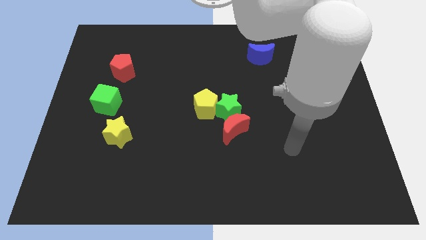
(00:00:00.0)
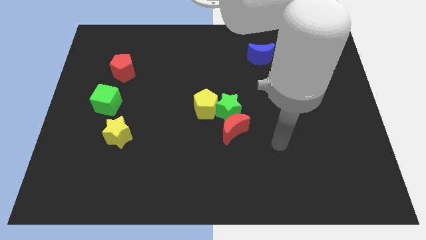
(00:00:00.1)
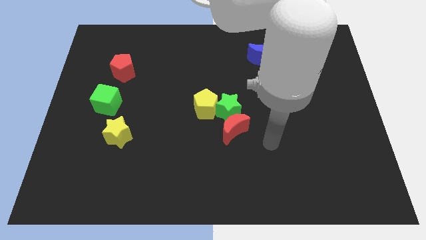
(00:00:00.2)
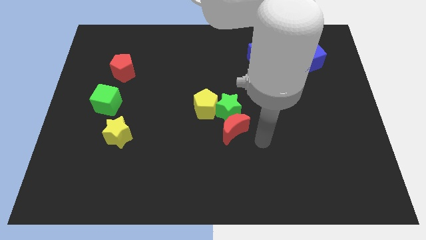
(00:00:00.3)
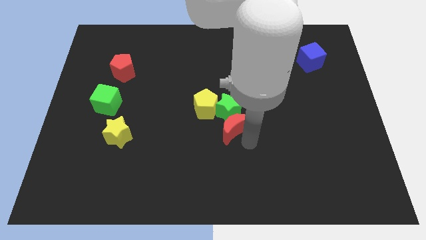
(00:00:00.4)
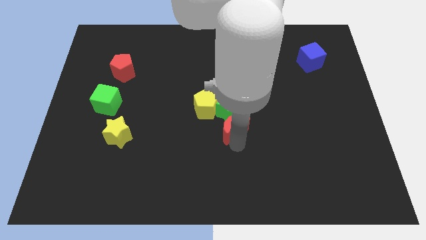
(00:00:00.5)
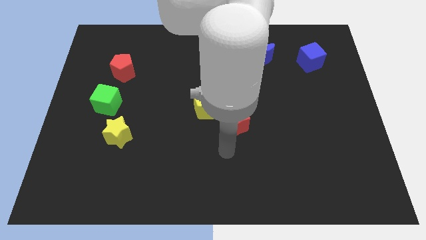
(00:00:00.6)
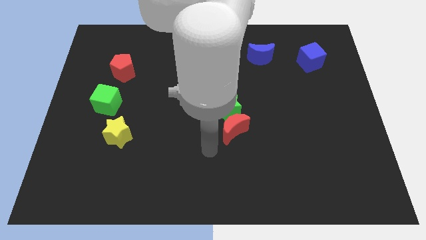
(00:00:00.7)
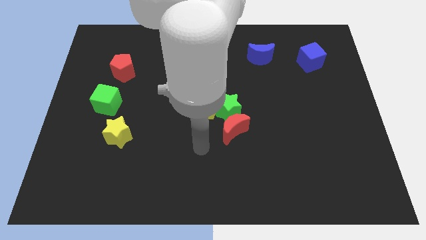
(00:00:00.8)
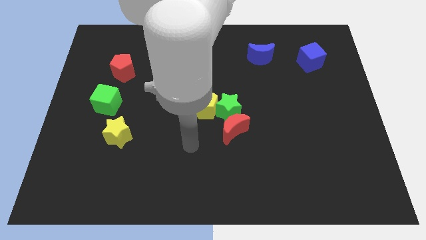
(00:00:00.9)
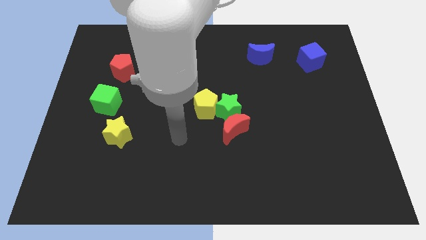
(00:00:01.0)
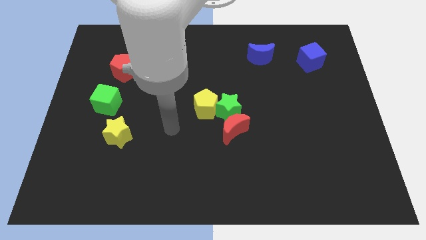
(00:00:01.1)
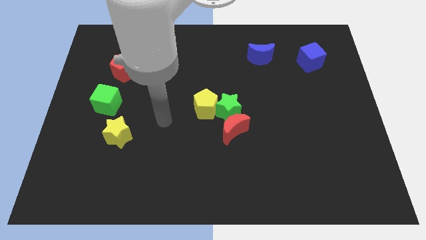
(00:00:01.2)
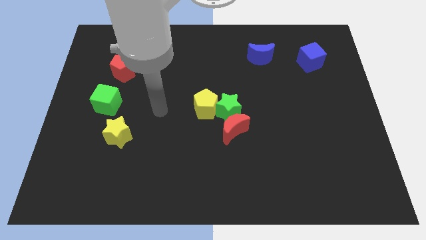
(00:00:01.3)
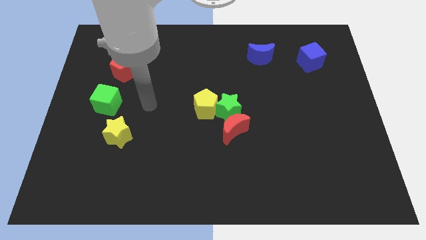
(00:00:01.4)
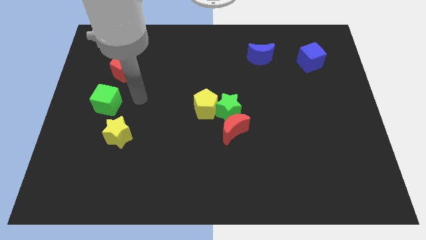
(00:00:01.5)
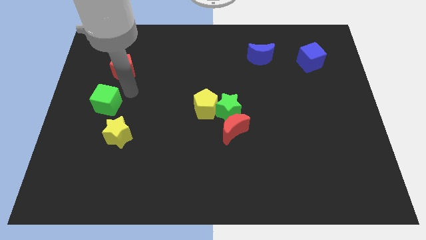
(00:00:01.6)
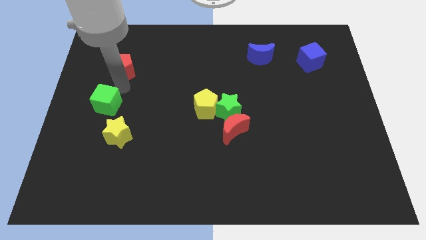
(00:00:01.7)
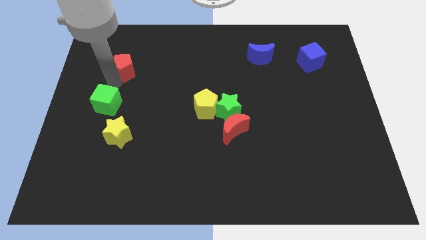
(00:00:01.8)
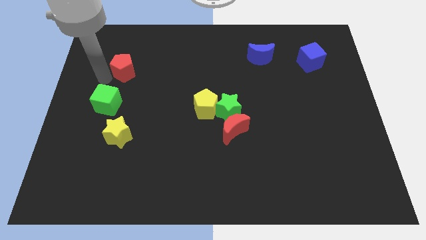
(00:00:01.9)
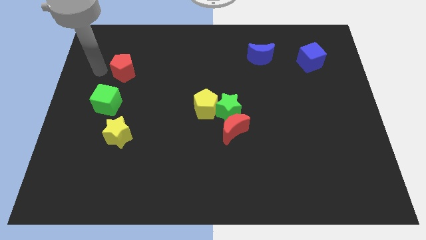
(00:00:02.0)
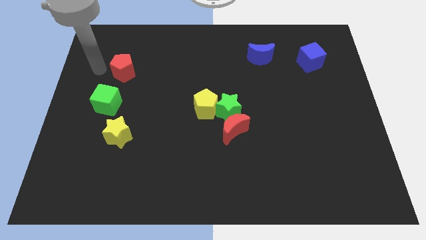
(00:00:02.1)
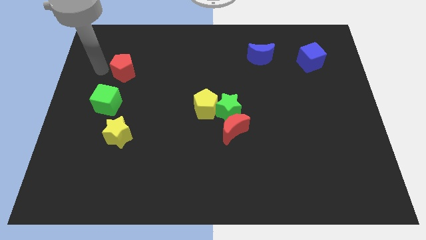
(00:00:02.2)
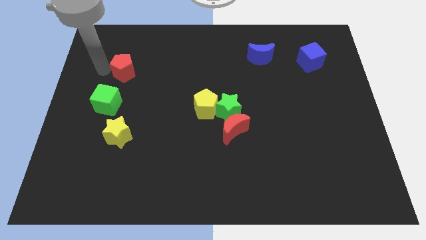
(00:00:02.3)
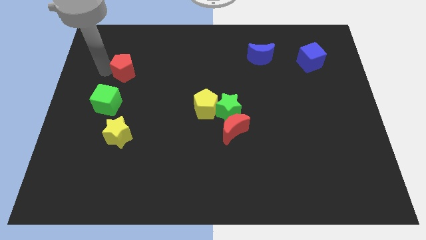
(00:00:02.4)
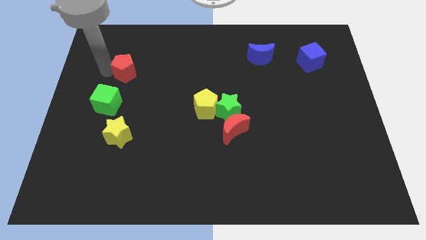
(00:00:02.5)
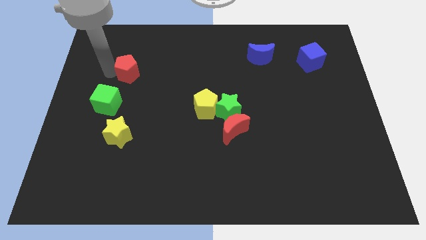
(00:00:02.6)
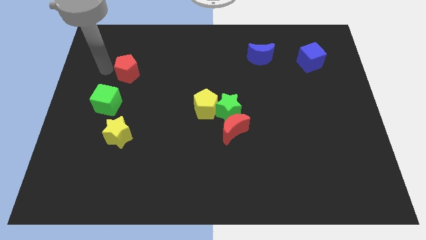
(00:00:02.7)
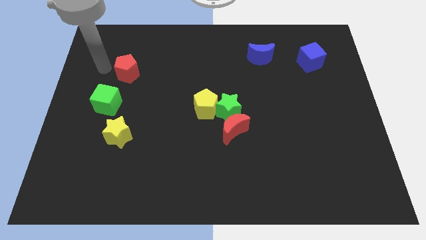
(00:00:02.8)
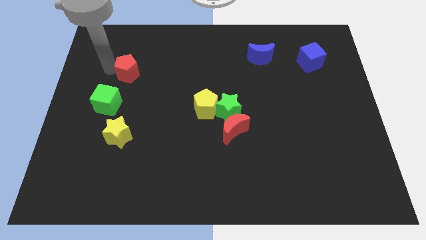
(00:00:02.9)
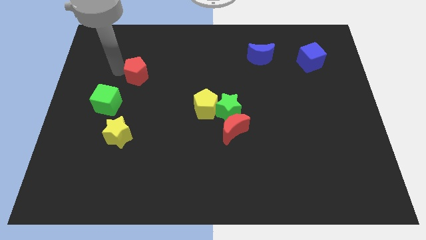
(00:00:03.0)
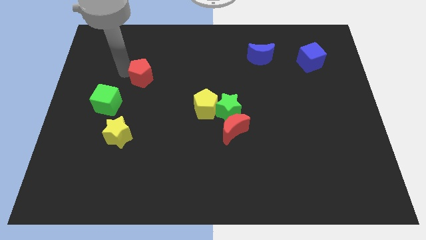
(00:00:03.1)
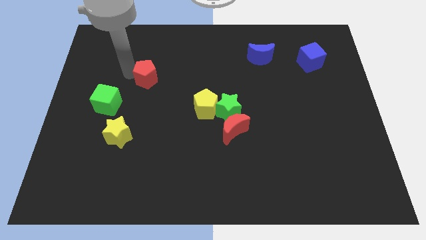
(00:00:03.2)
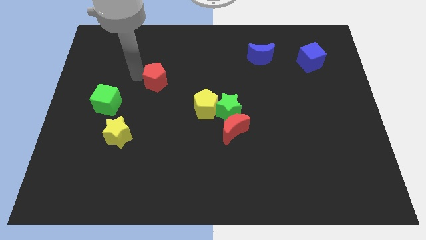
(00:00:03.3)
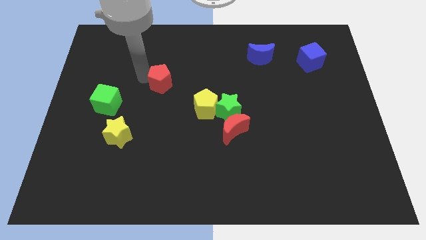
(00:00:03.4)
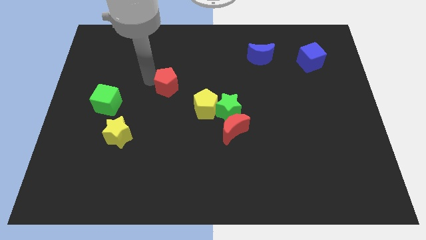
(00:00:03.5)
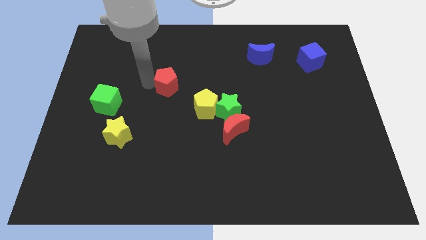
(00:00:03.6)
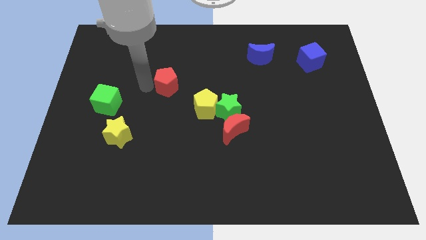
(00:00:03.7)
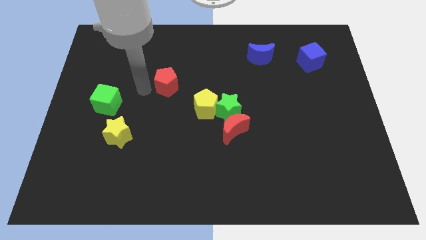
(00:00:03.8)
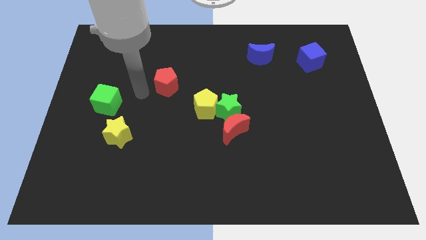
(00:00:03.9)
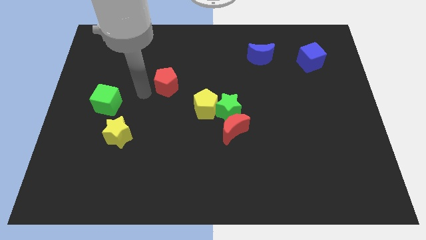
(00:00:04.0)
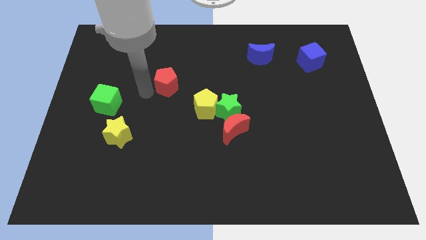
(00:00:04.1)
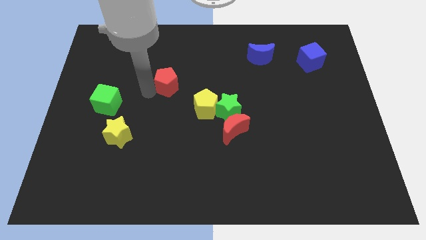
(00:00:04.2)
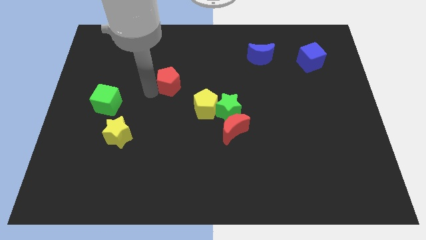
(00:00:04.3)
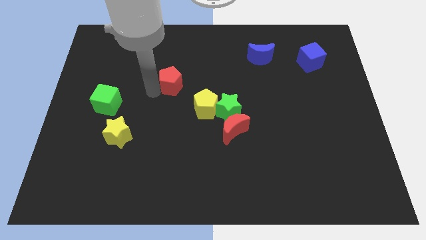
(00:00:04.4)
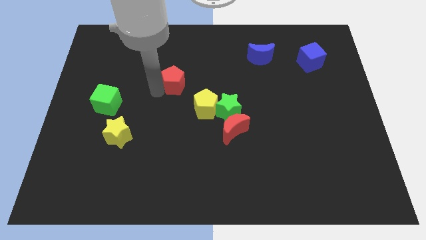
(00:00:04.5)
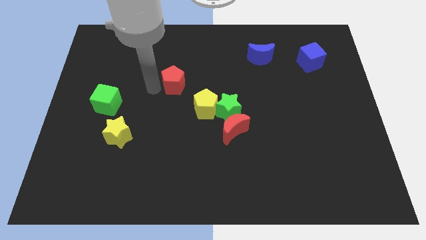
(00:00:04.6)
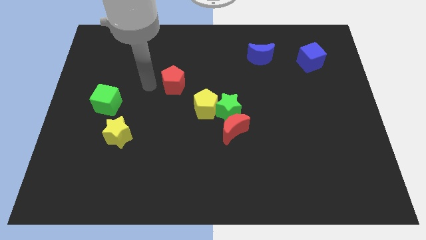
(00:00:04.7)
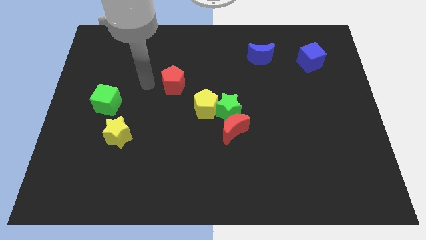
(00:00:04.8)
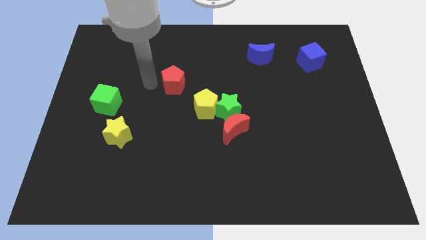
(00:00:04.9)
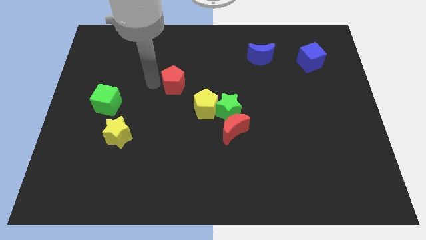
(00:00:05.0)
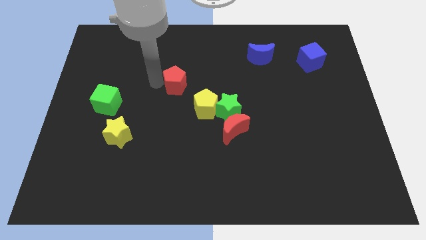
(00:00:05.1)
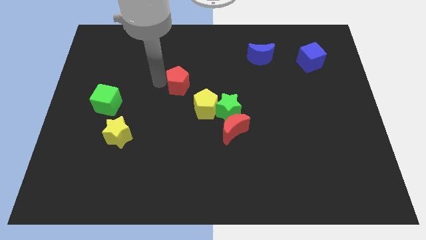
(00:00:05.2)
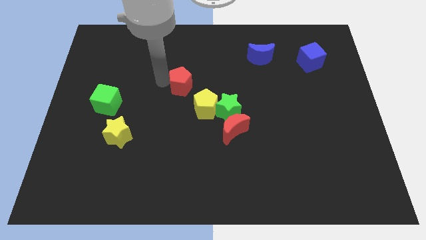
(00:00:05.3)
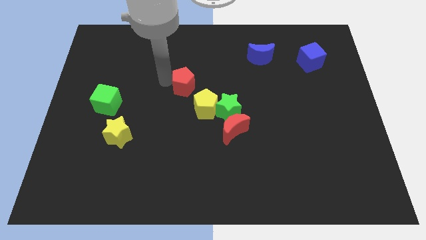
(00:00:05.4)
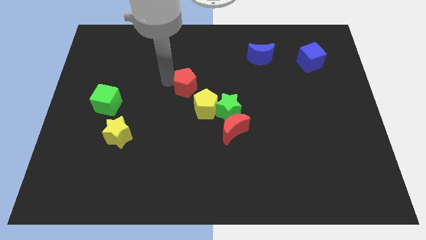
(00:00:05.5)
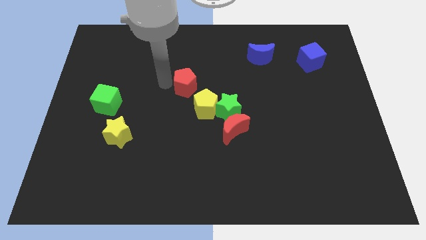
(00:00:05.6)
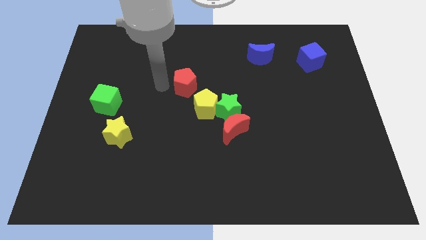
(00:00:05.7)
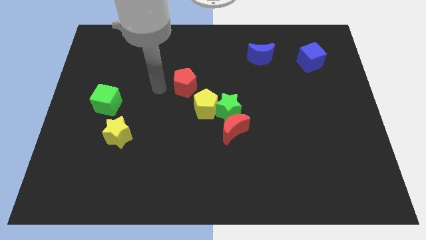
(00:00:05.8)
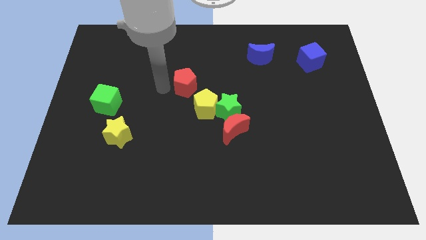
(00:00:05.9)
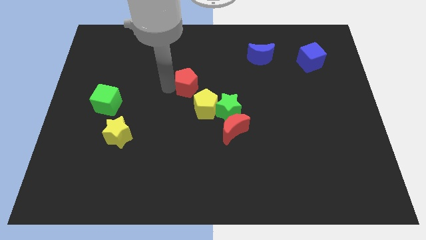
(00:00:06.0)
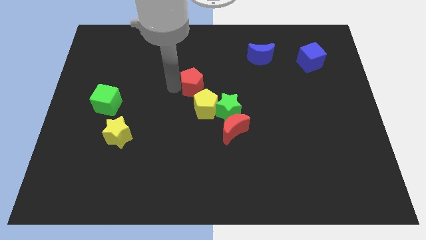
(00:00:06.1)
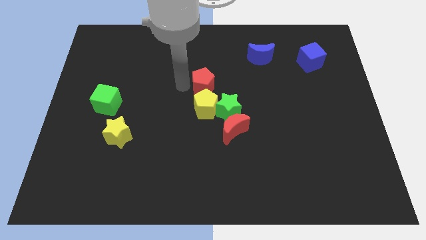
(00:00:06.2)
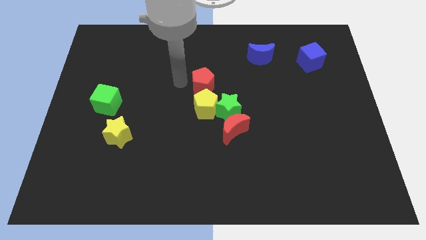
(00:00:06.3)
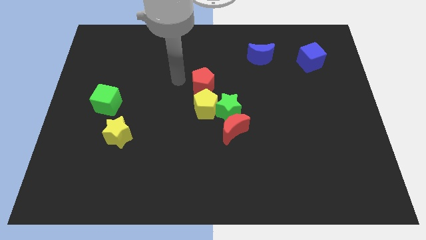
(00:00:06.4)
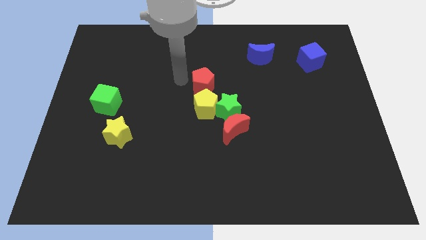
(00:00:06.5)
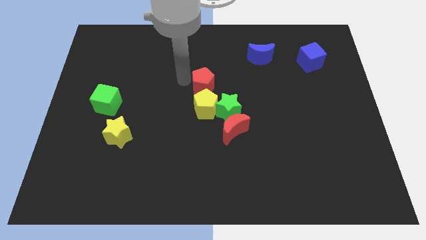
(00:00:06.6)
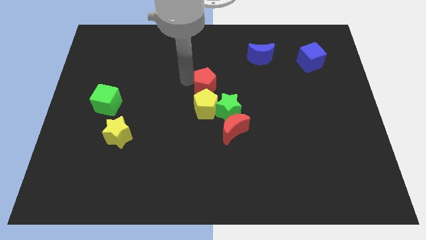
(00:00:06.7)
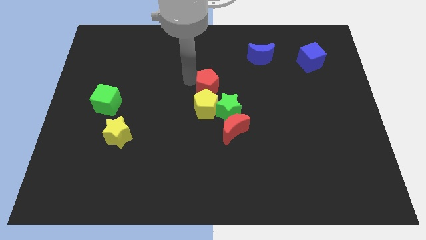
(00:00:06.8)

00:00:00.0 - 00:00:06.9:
move the red pentagon to the top right of the yellow pentagon
